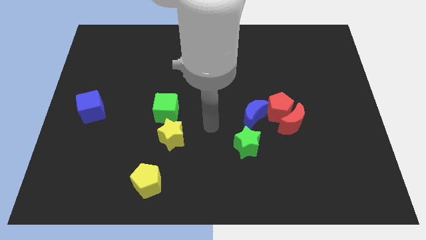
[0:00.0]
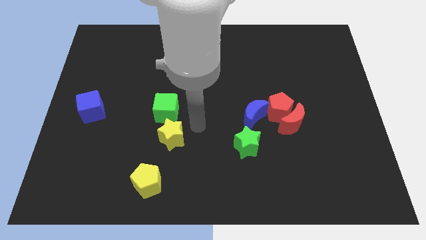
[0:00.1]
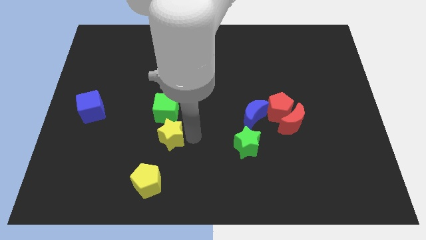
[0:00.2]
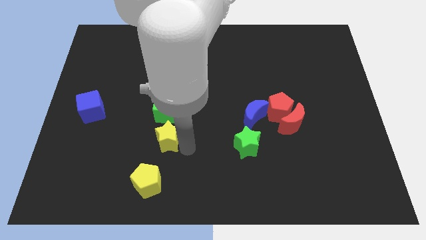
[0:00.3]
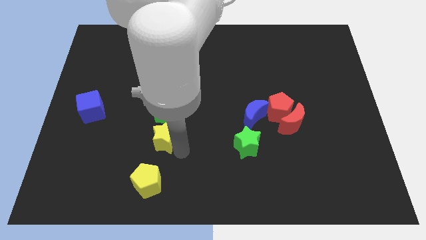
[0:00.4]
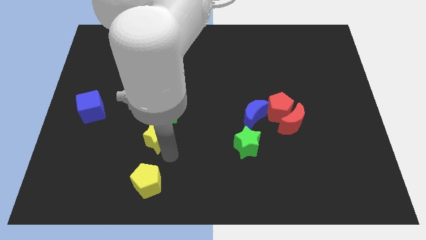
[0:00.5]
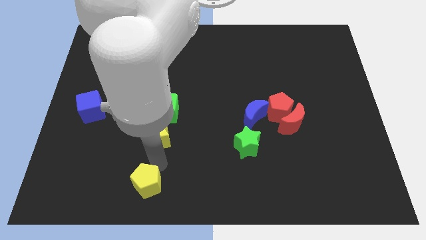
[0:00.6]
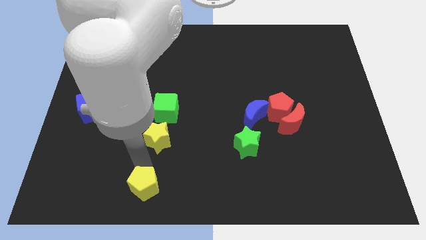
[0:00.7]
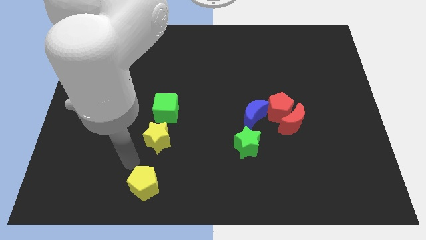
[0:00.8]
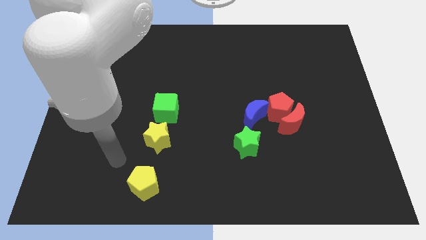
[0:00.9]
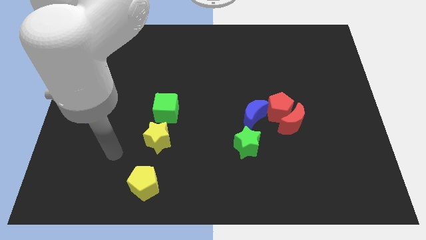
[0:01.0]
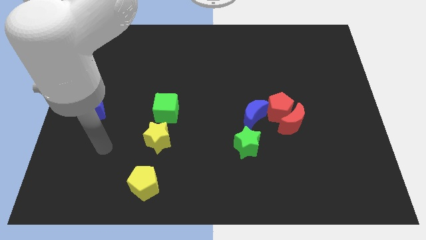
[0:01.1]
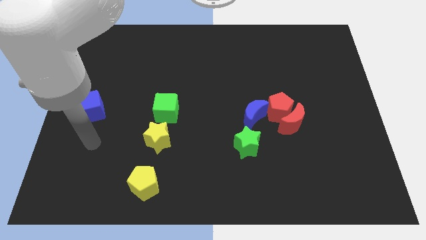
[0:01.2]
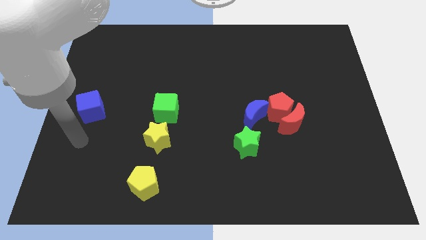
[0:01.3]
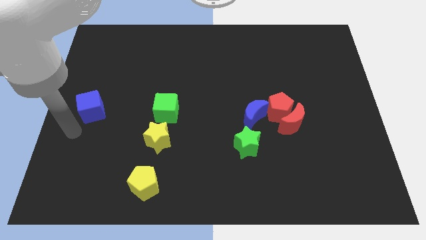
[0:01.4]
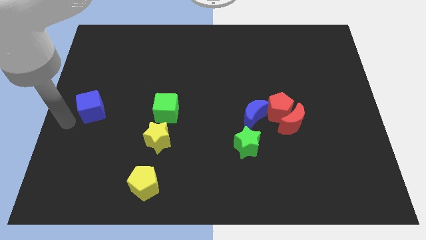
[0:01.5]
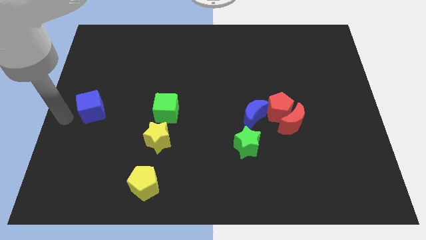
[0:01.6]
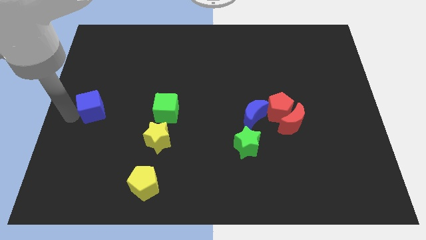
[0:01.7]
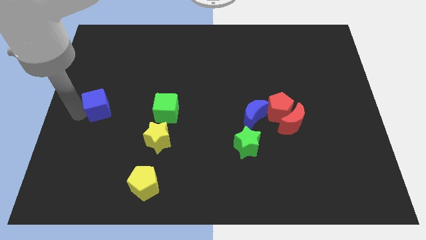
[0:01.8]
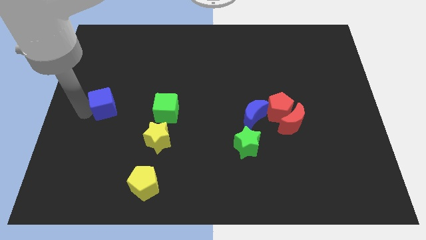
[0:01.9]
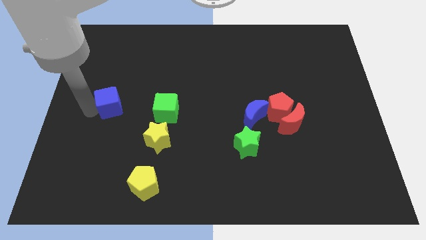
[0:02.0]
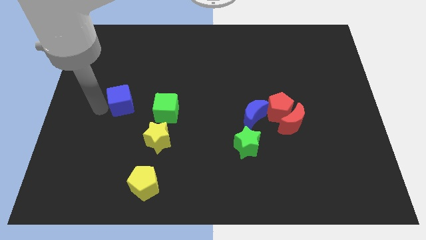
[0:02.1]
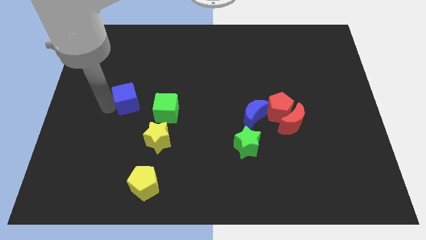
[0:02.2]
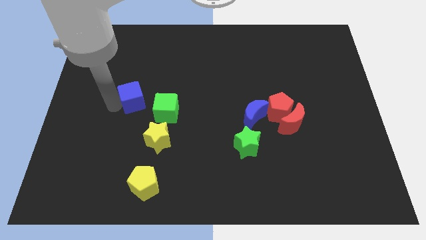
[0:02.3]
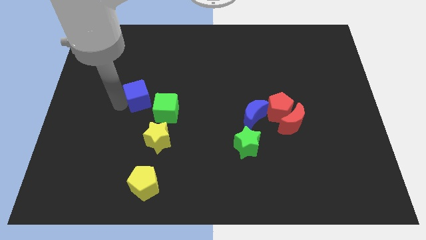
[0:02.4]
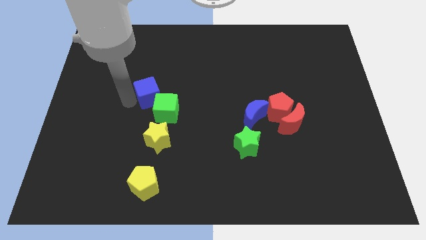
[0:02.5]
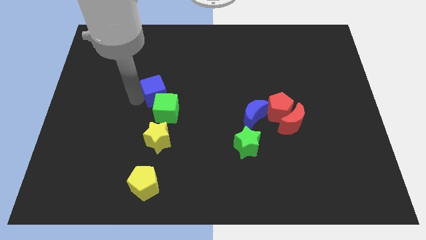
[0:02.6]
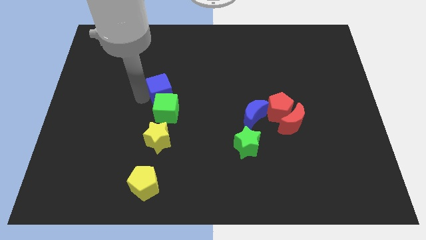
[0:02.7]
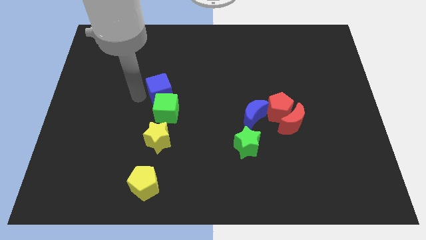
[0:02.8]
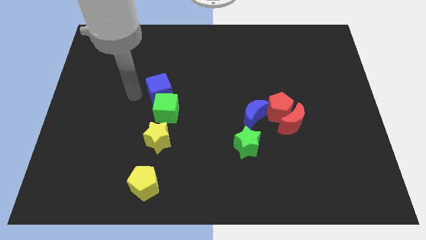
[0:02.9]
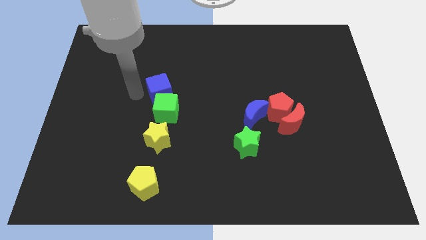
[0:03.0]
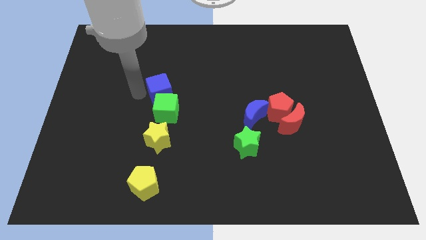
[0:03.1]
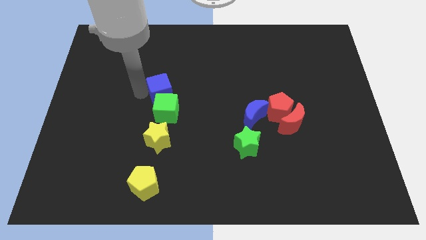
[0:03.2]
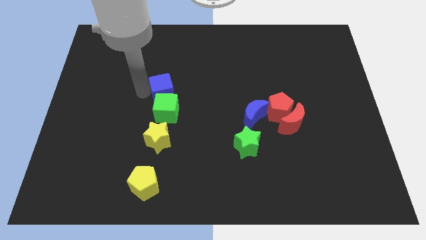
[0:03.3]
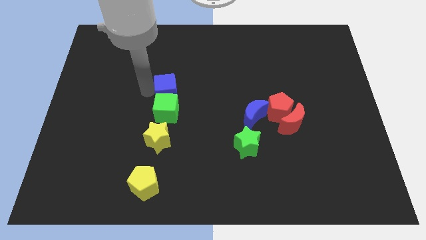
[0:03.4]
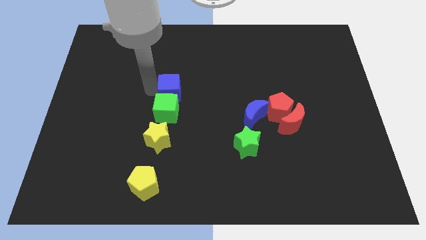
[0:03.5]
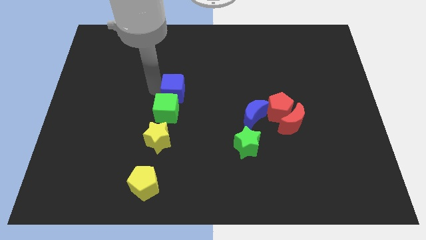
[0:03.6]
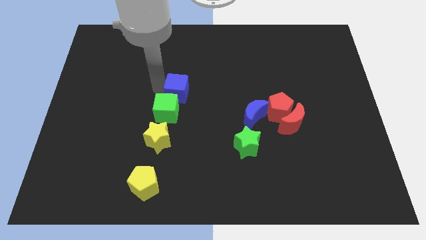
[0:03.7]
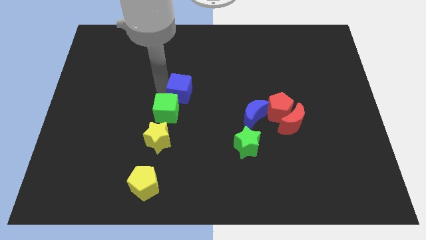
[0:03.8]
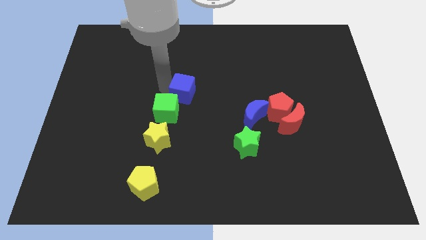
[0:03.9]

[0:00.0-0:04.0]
push the blue cube to the right

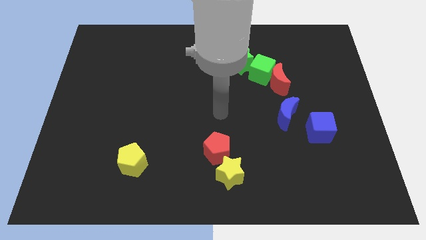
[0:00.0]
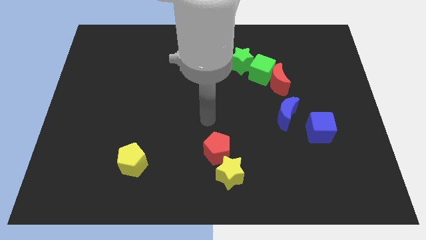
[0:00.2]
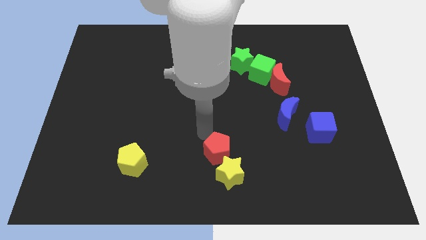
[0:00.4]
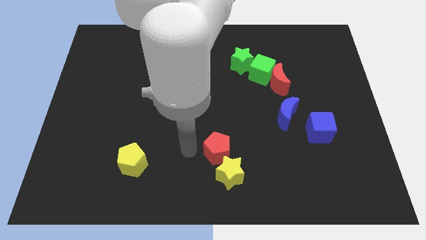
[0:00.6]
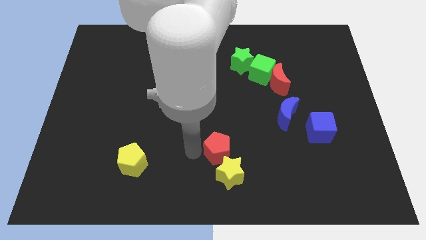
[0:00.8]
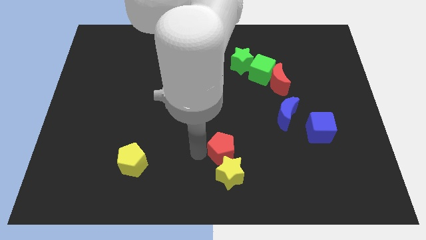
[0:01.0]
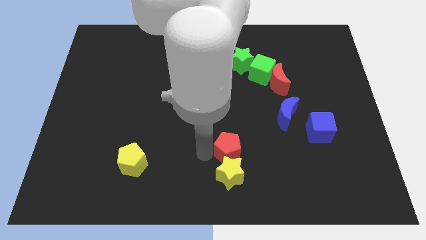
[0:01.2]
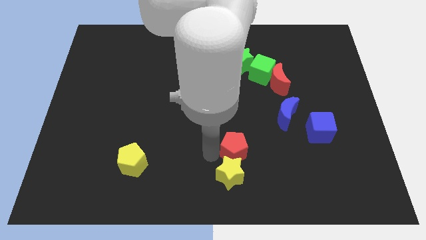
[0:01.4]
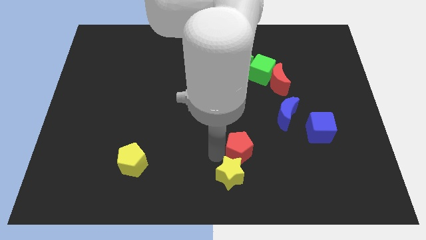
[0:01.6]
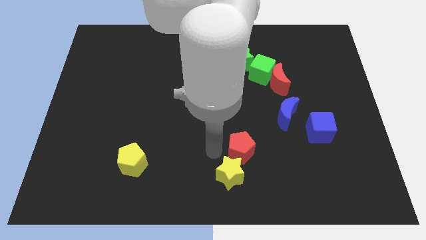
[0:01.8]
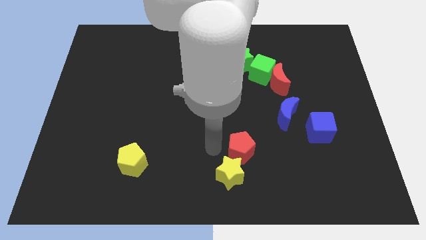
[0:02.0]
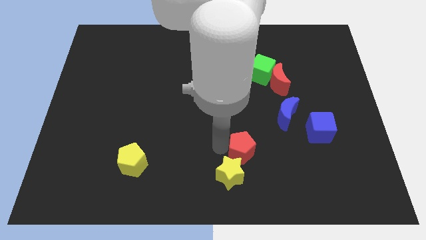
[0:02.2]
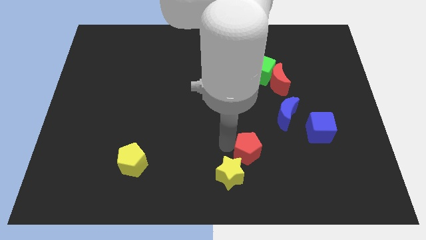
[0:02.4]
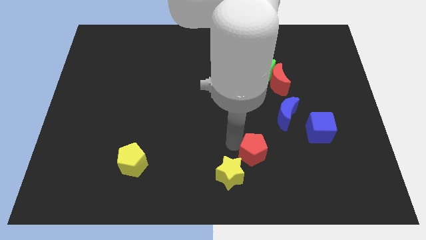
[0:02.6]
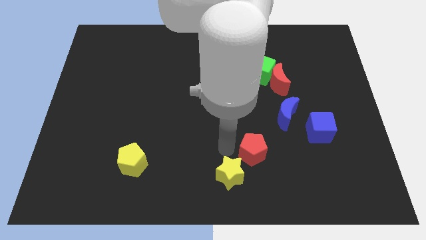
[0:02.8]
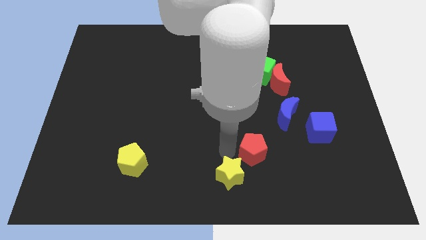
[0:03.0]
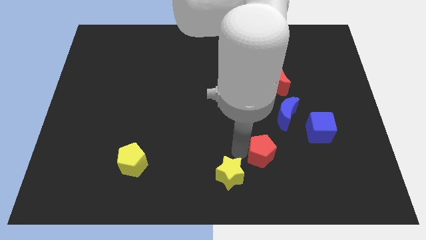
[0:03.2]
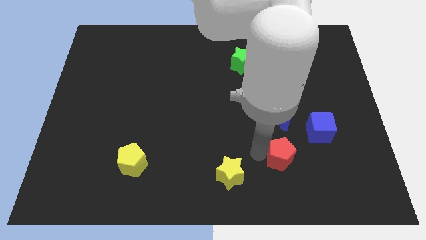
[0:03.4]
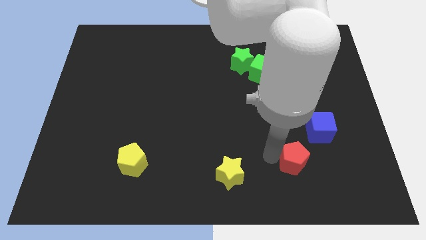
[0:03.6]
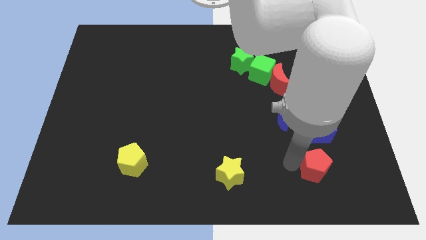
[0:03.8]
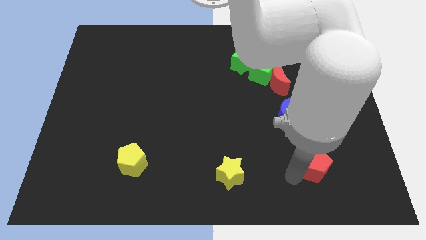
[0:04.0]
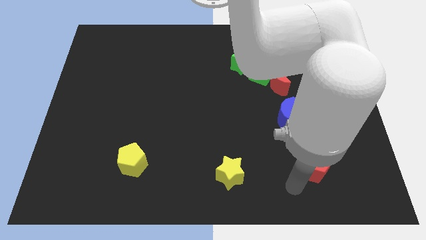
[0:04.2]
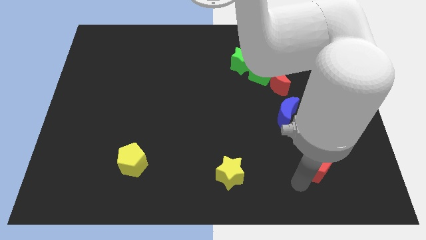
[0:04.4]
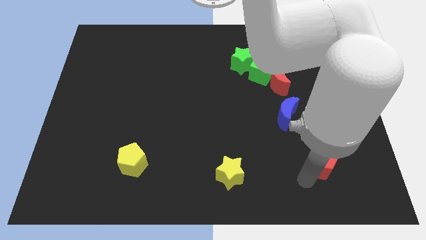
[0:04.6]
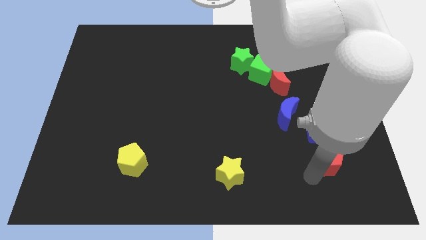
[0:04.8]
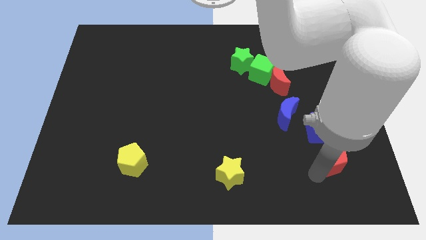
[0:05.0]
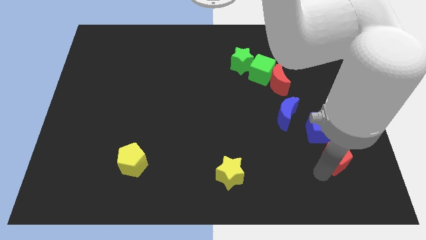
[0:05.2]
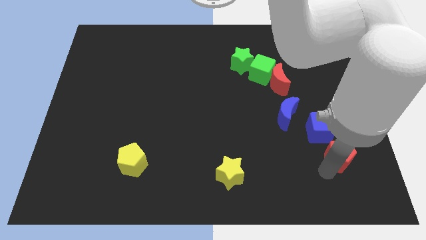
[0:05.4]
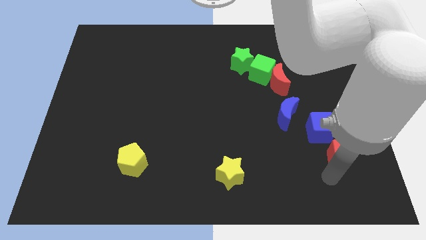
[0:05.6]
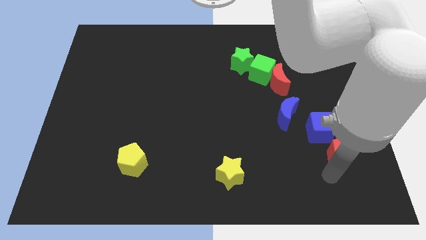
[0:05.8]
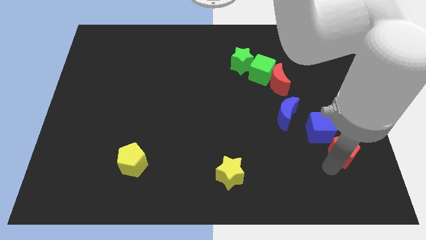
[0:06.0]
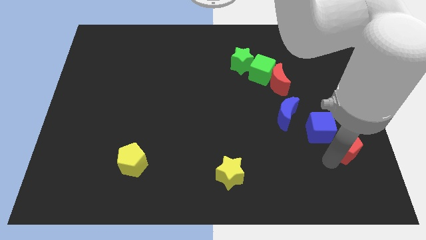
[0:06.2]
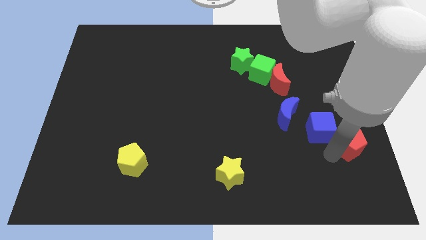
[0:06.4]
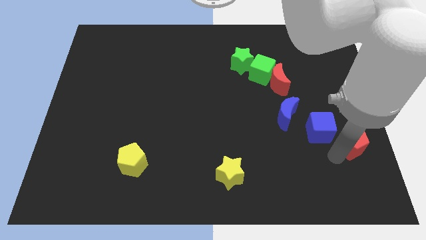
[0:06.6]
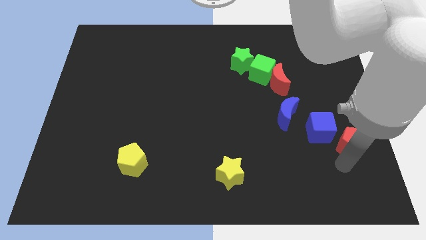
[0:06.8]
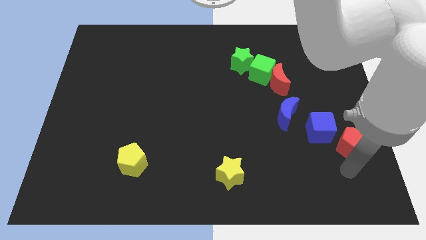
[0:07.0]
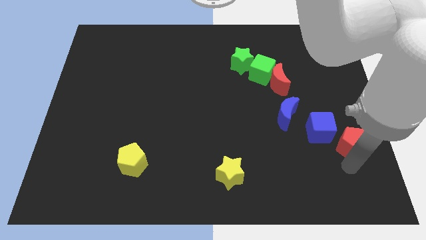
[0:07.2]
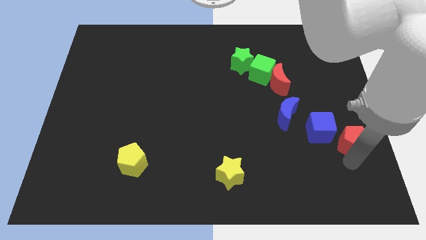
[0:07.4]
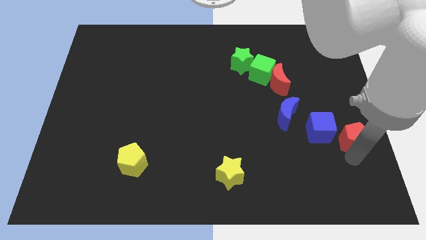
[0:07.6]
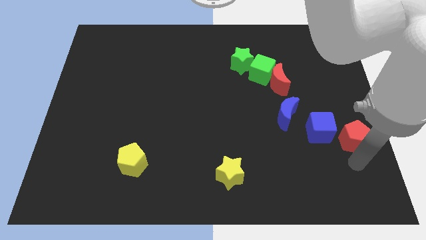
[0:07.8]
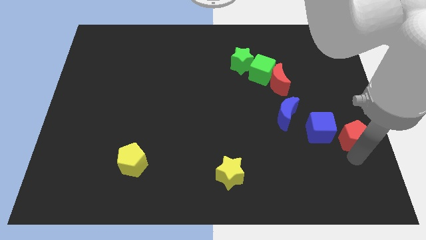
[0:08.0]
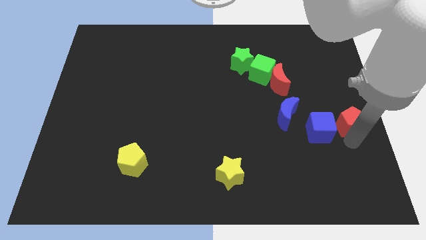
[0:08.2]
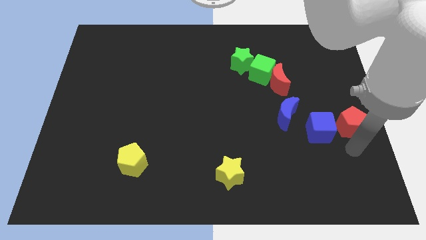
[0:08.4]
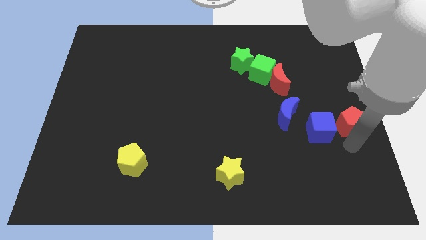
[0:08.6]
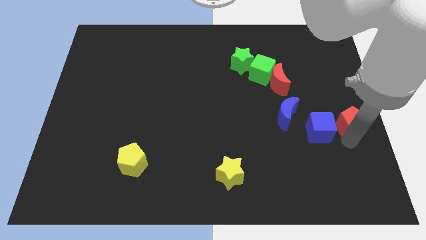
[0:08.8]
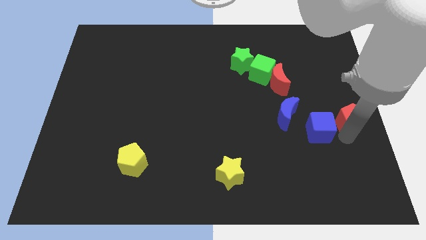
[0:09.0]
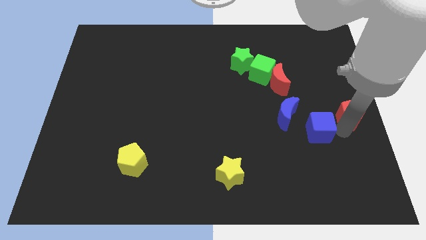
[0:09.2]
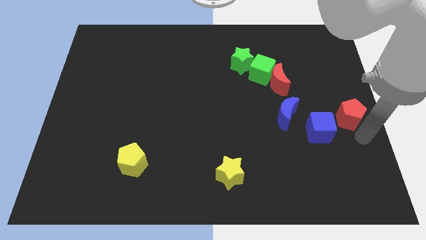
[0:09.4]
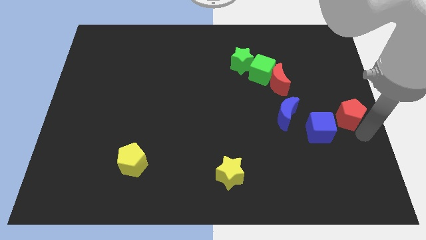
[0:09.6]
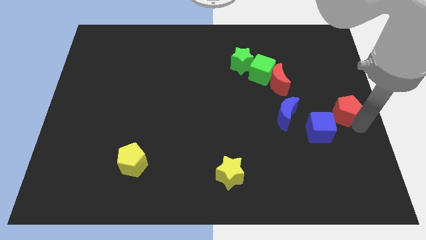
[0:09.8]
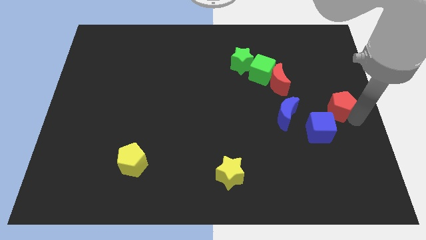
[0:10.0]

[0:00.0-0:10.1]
move the red pentagon upwards and to the right diagonally
